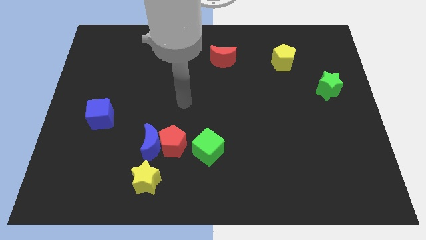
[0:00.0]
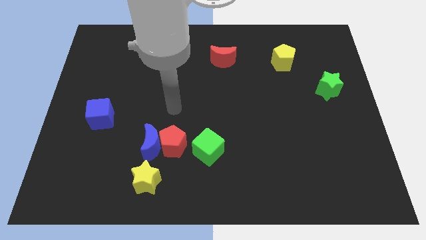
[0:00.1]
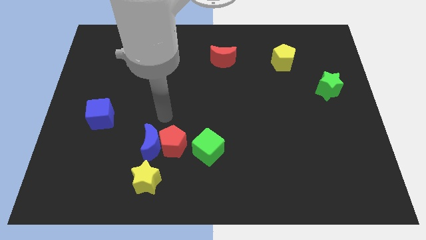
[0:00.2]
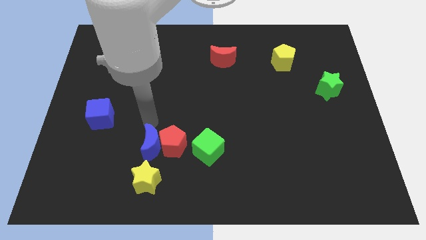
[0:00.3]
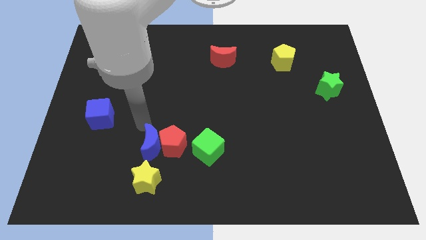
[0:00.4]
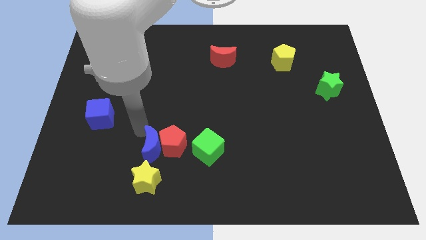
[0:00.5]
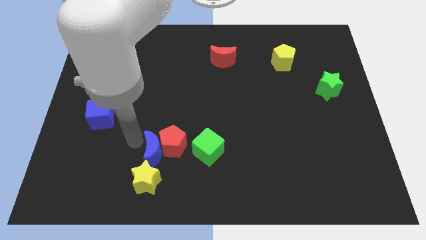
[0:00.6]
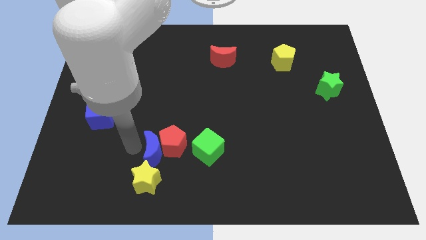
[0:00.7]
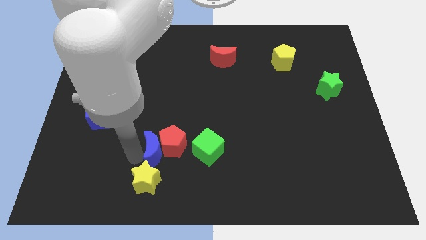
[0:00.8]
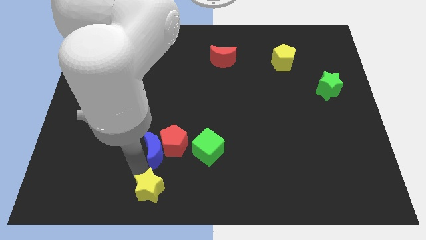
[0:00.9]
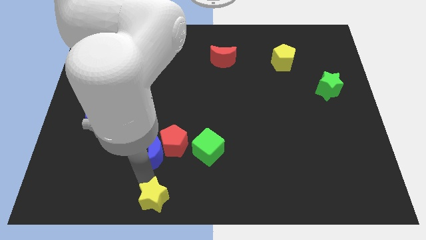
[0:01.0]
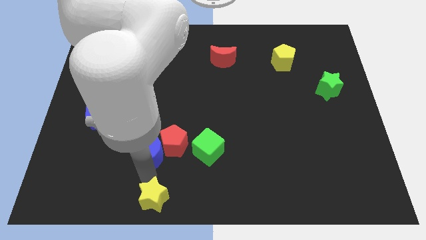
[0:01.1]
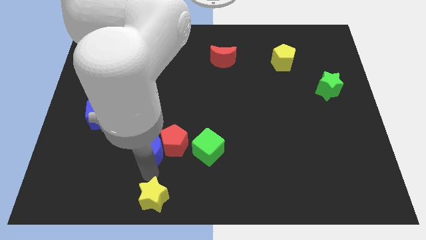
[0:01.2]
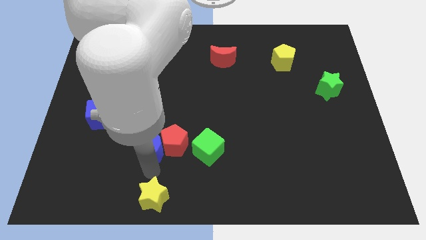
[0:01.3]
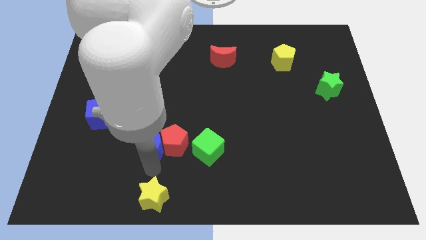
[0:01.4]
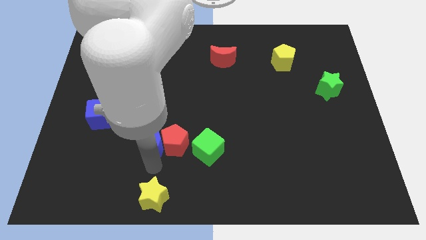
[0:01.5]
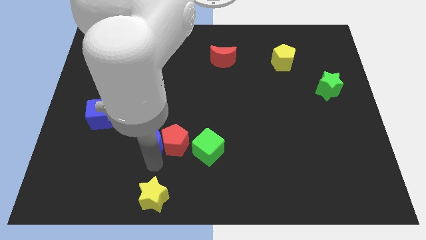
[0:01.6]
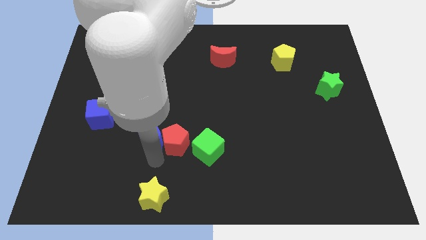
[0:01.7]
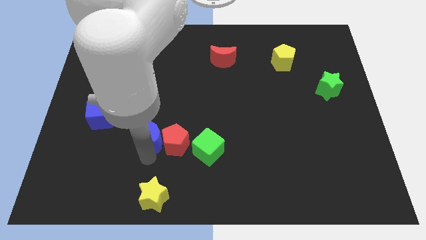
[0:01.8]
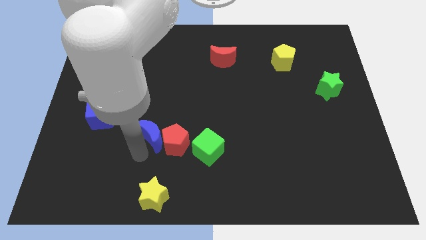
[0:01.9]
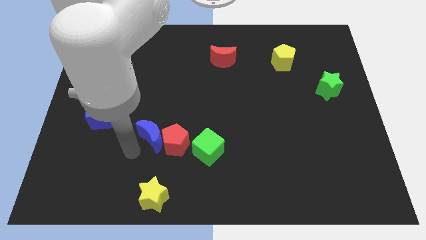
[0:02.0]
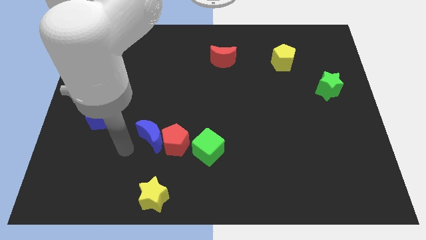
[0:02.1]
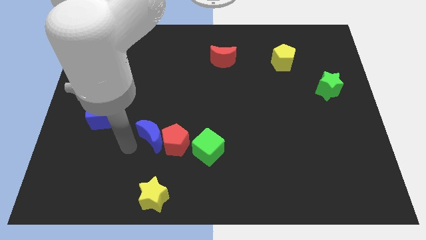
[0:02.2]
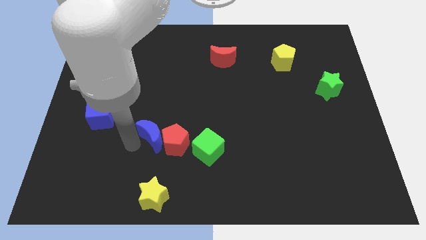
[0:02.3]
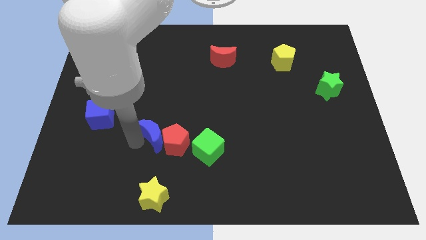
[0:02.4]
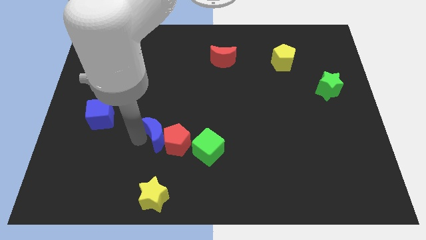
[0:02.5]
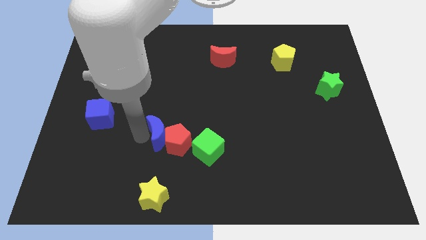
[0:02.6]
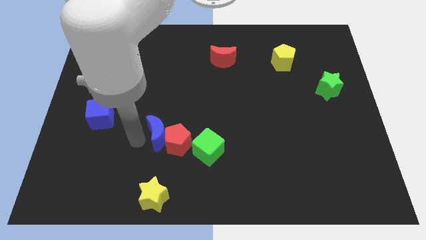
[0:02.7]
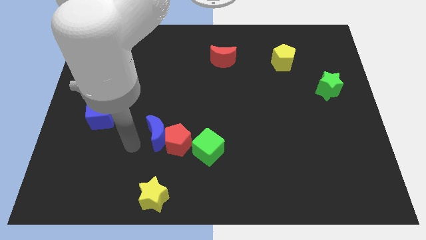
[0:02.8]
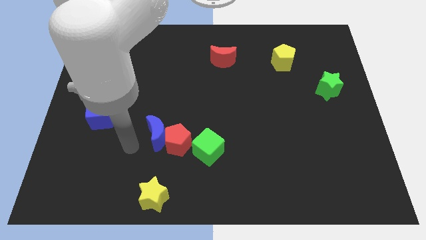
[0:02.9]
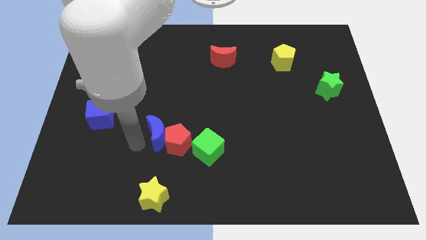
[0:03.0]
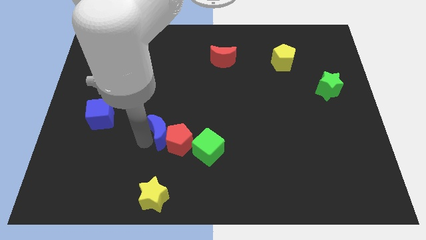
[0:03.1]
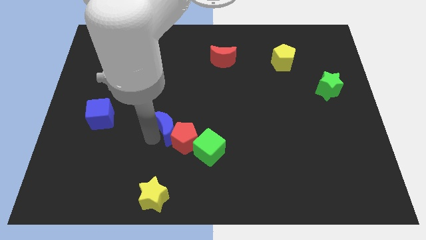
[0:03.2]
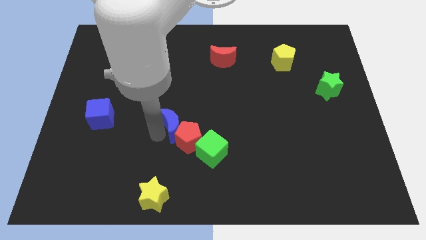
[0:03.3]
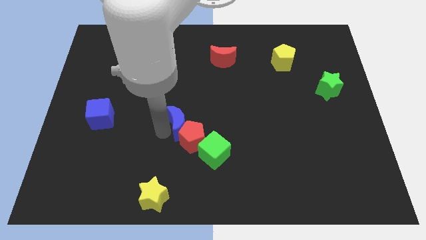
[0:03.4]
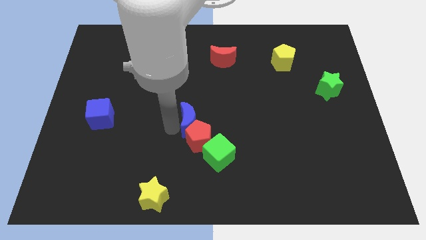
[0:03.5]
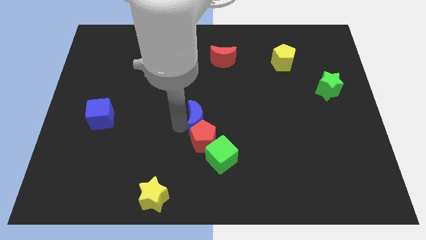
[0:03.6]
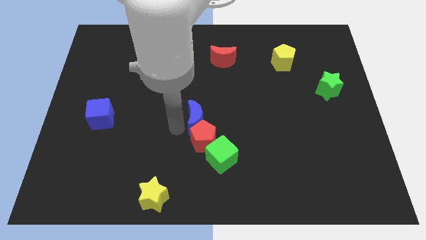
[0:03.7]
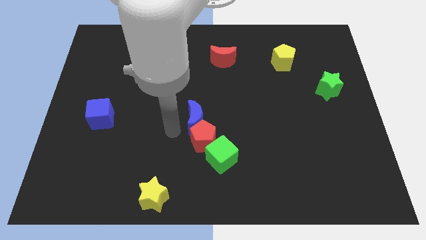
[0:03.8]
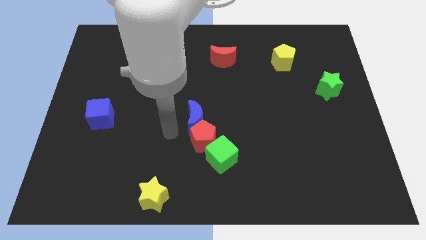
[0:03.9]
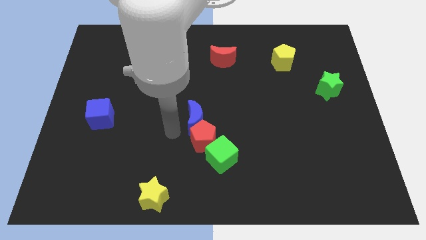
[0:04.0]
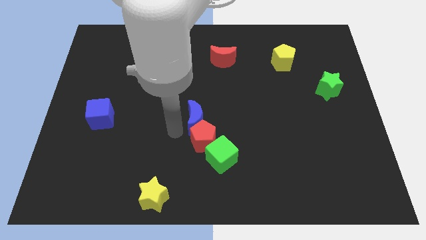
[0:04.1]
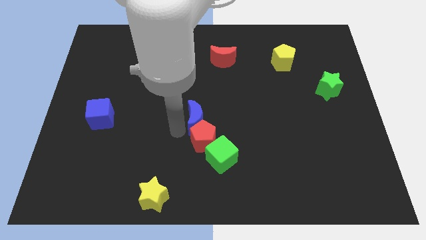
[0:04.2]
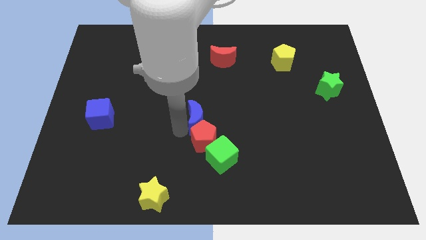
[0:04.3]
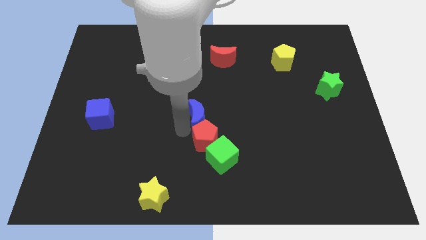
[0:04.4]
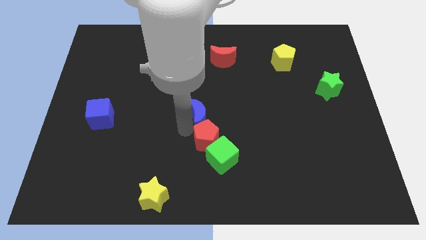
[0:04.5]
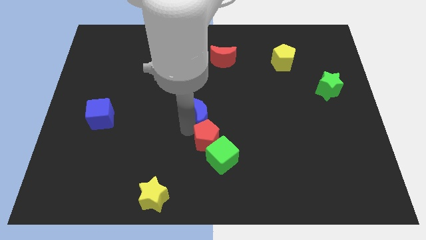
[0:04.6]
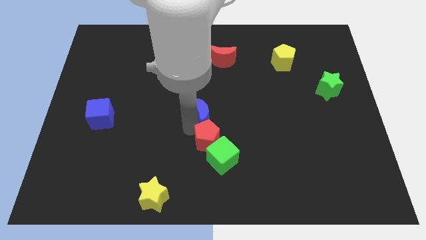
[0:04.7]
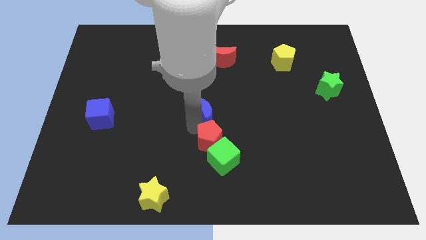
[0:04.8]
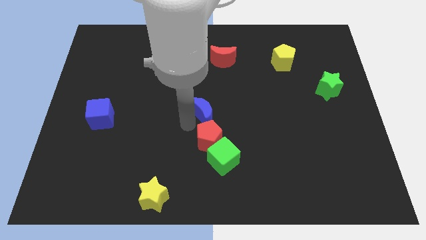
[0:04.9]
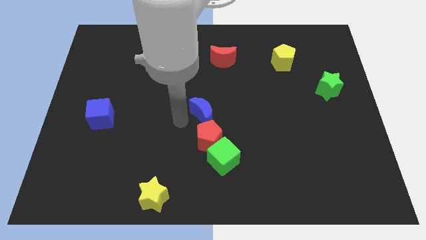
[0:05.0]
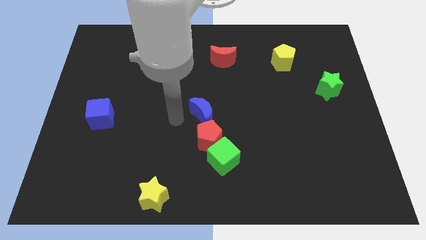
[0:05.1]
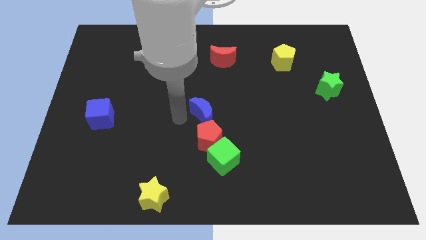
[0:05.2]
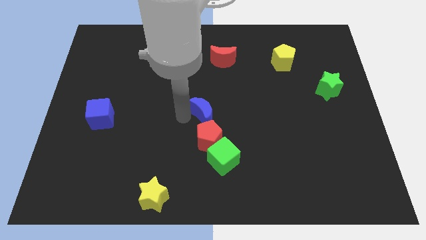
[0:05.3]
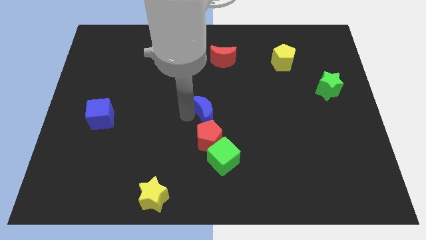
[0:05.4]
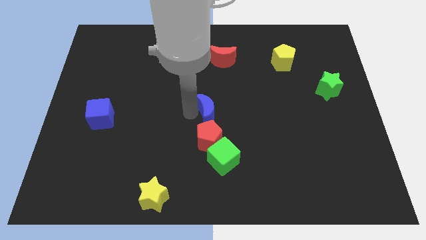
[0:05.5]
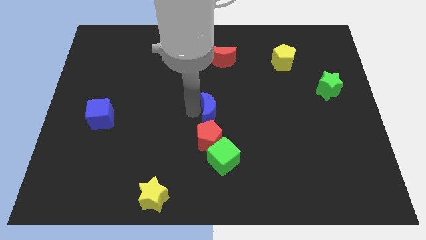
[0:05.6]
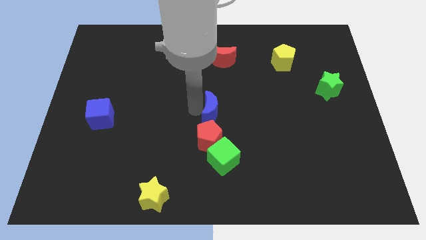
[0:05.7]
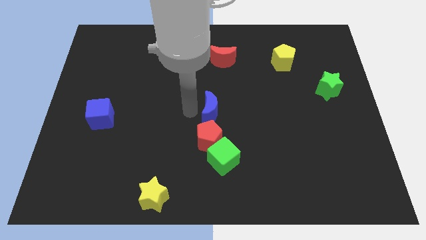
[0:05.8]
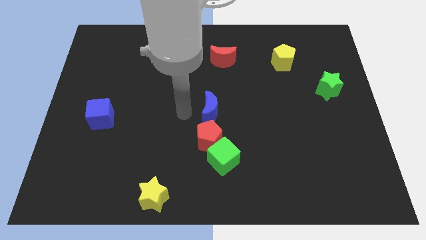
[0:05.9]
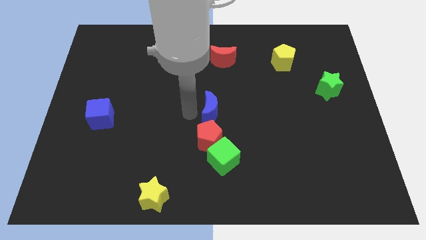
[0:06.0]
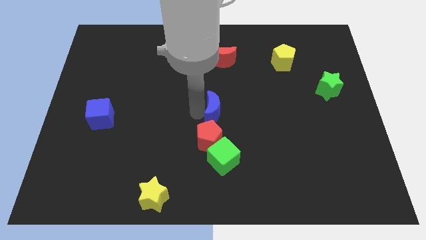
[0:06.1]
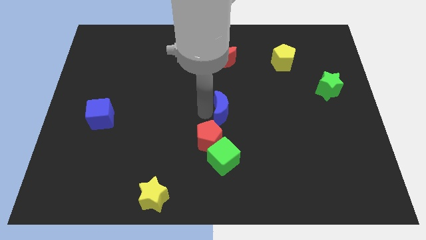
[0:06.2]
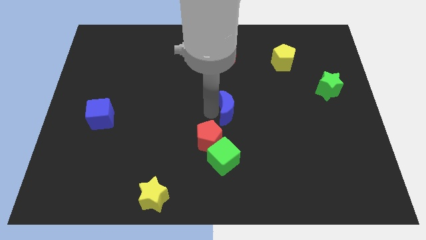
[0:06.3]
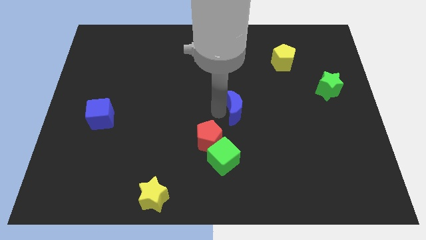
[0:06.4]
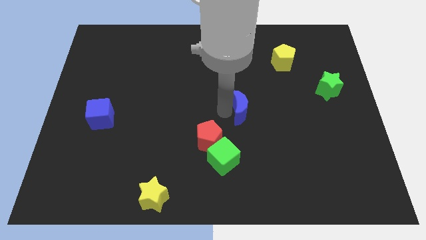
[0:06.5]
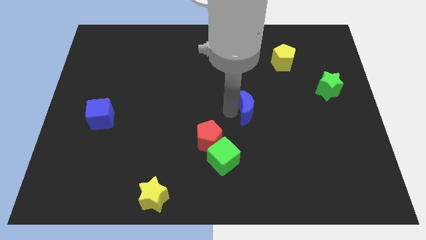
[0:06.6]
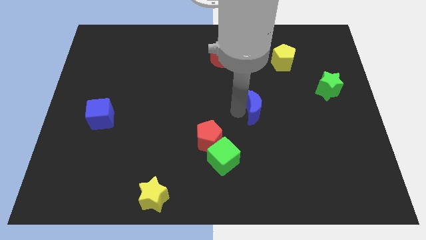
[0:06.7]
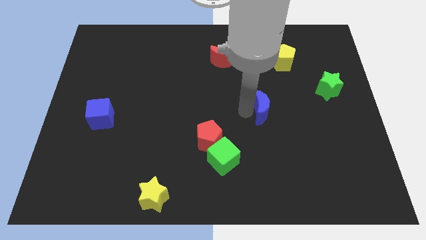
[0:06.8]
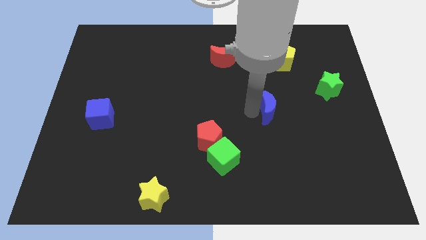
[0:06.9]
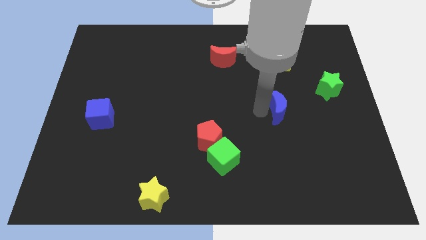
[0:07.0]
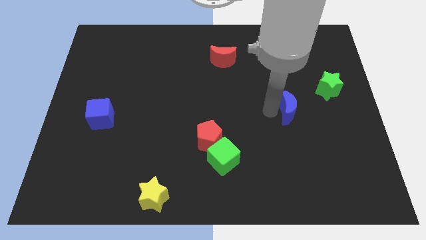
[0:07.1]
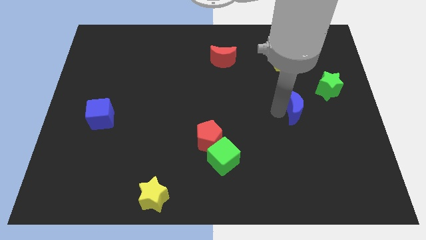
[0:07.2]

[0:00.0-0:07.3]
slide the blue moon to the bottom left of the green star

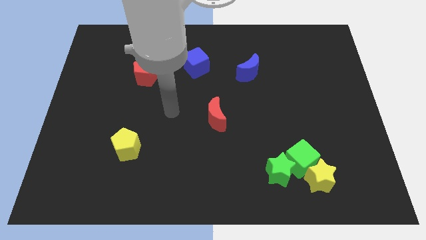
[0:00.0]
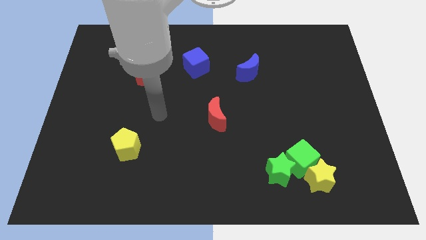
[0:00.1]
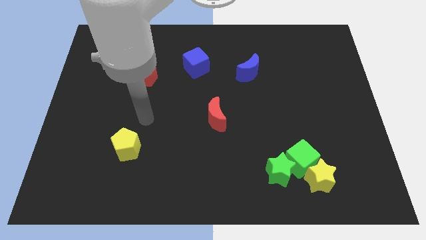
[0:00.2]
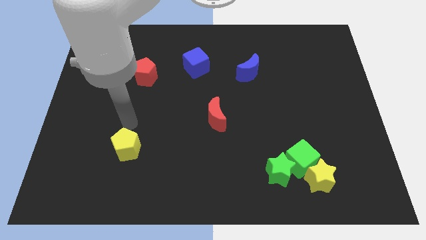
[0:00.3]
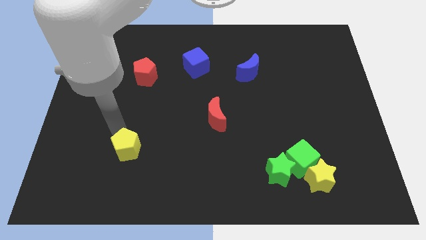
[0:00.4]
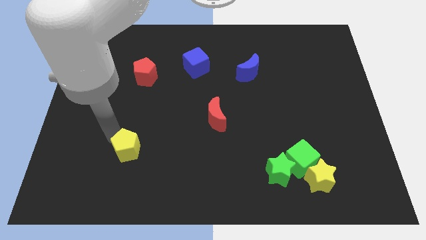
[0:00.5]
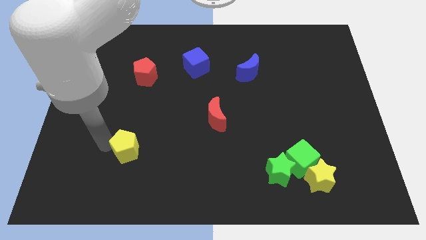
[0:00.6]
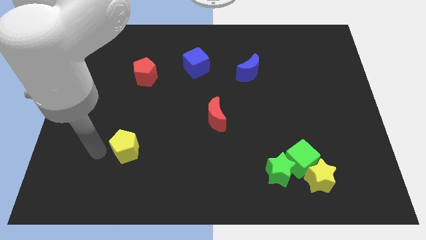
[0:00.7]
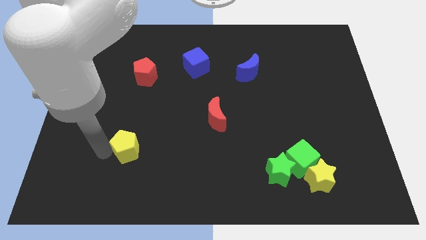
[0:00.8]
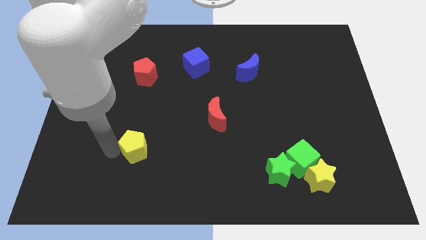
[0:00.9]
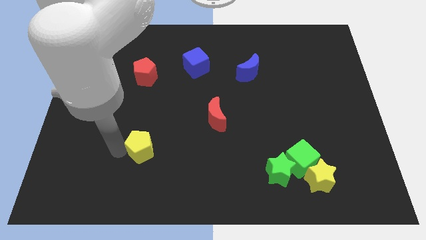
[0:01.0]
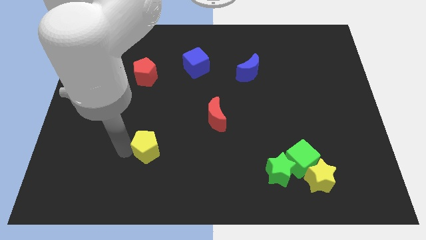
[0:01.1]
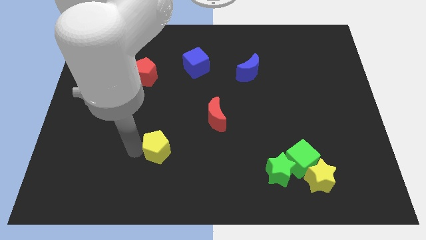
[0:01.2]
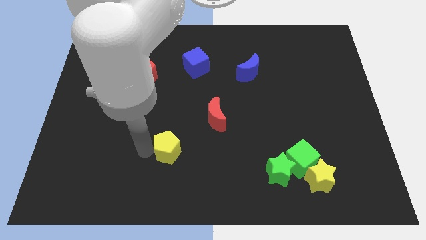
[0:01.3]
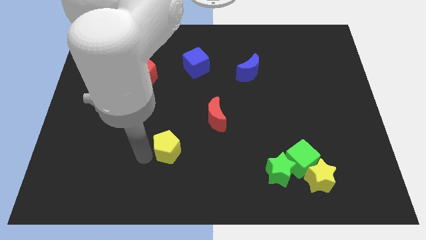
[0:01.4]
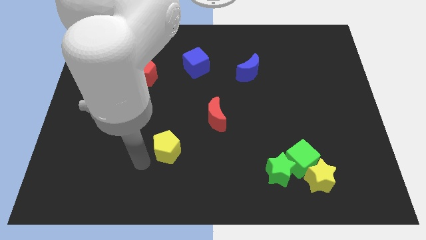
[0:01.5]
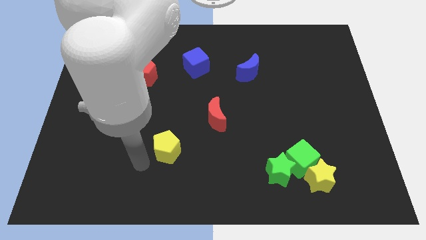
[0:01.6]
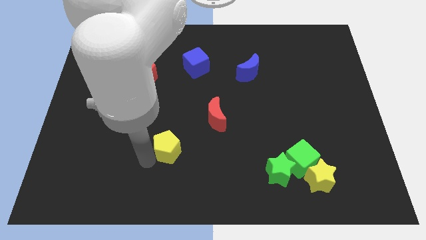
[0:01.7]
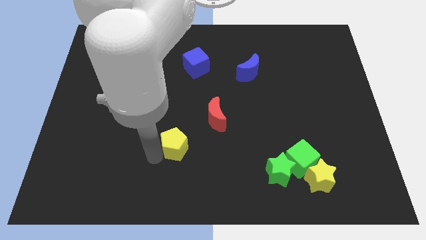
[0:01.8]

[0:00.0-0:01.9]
push the yellow pentagon to the bottom left side of the red moon
